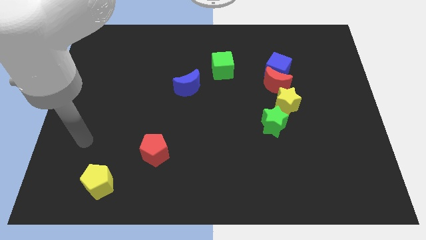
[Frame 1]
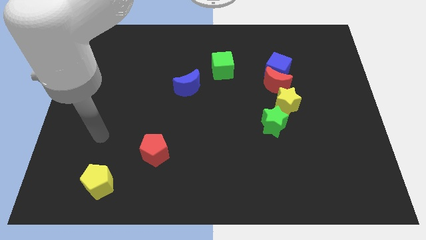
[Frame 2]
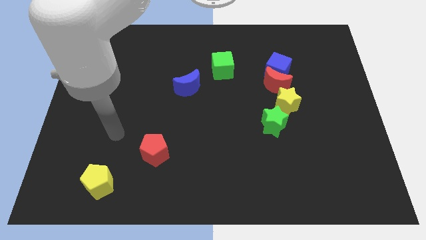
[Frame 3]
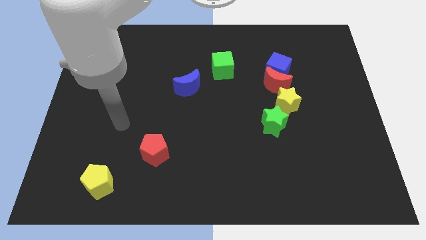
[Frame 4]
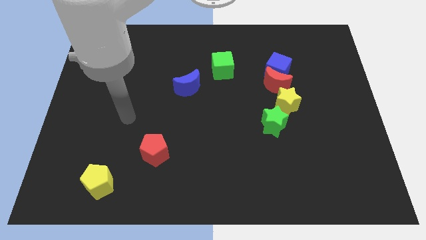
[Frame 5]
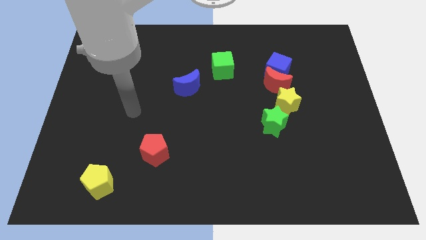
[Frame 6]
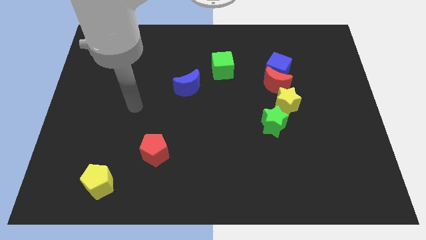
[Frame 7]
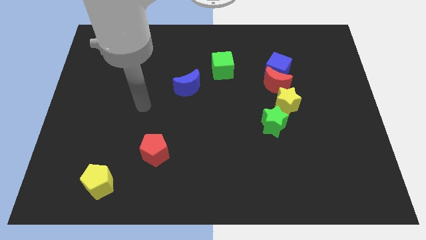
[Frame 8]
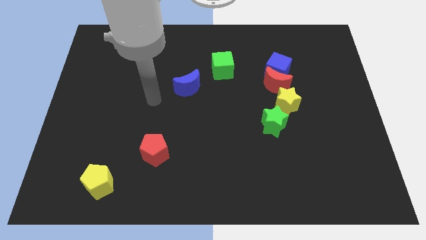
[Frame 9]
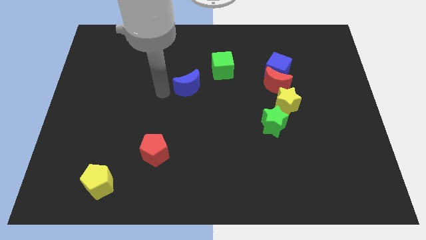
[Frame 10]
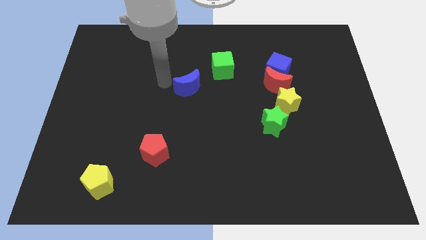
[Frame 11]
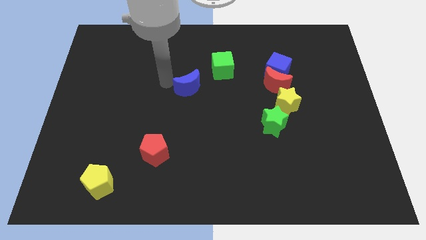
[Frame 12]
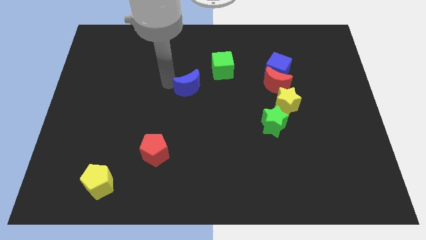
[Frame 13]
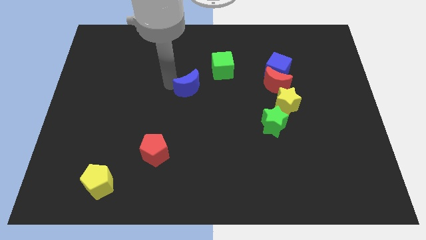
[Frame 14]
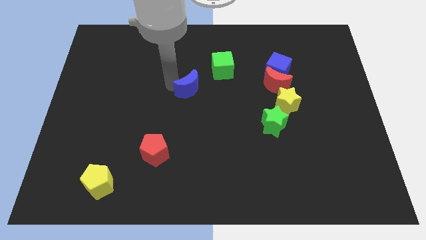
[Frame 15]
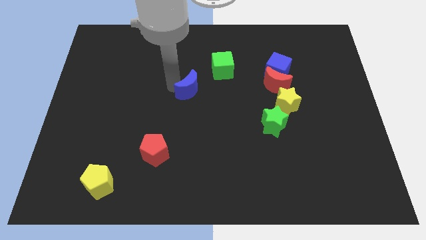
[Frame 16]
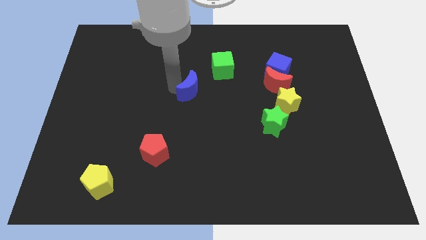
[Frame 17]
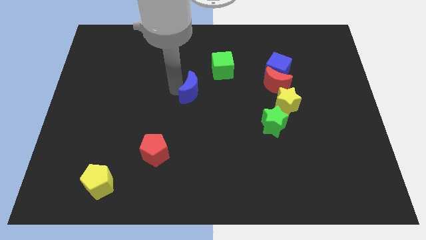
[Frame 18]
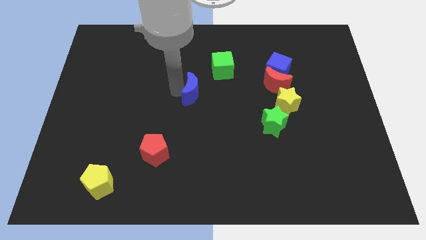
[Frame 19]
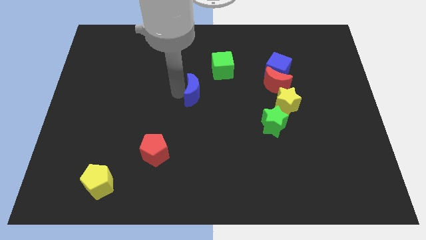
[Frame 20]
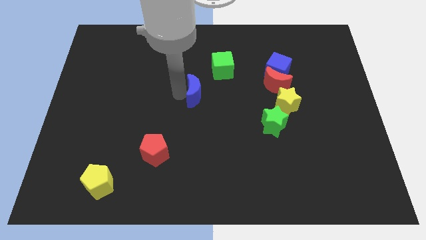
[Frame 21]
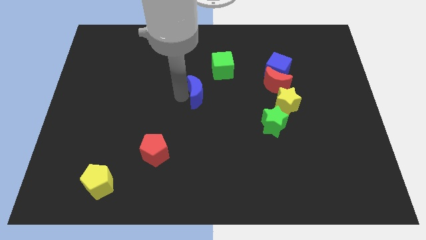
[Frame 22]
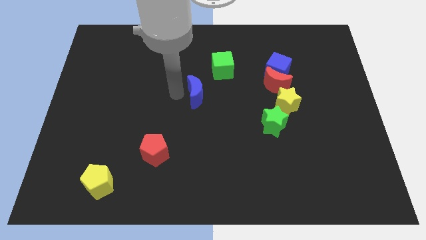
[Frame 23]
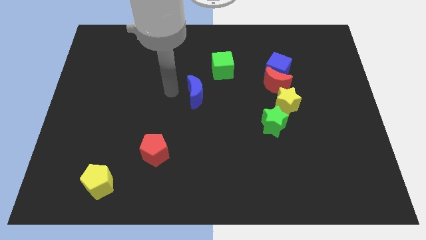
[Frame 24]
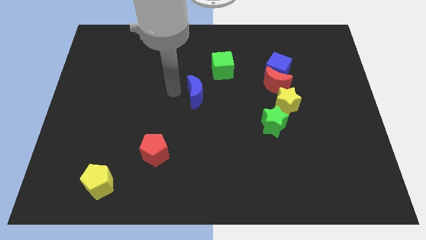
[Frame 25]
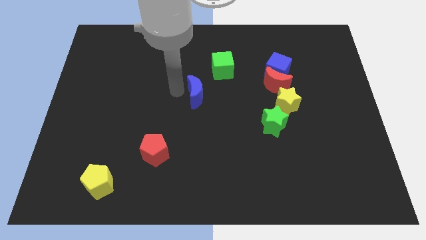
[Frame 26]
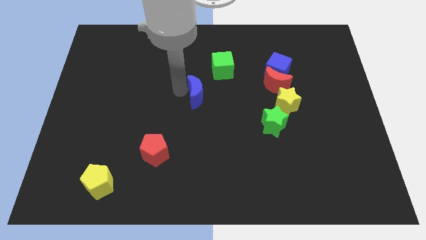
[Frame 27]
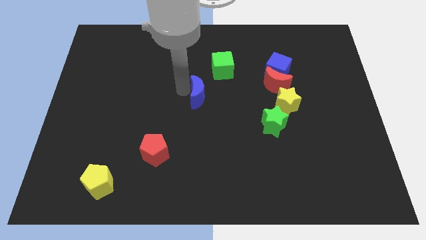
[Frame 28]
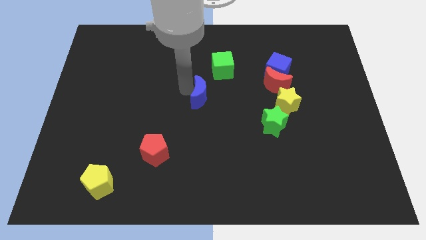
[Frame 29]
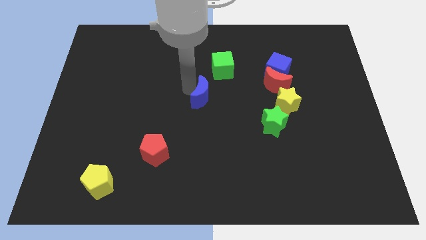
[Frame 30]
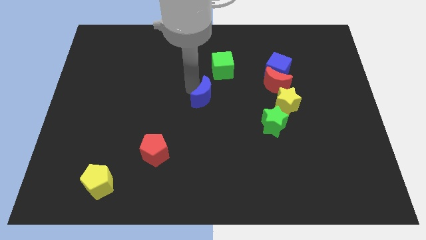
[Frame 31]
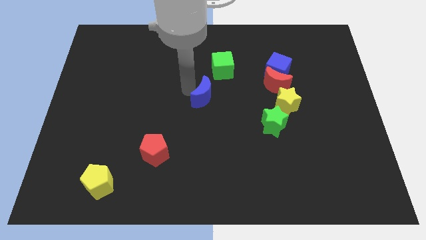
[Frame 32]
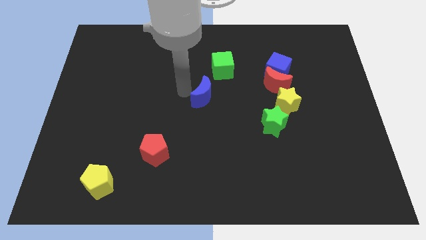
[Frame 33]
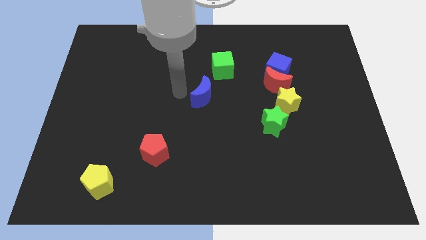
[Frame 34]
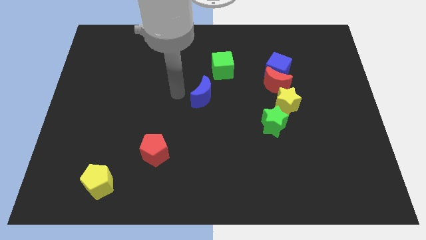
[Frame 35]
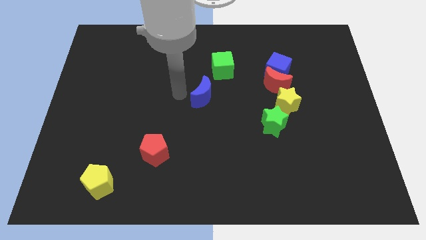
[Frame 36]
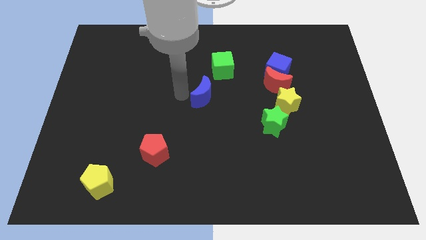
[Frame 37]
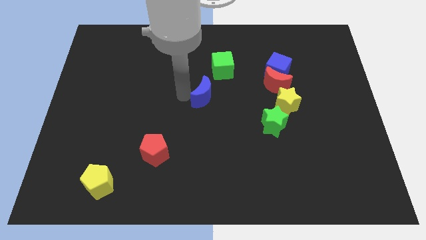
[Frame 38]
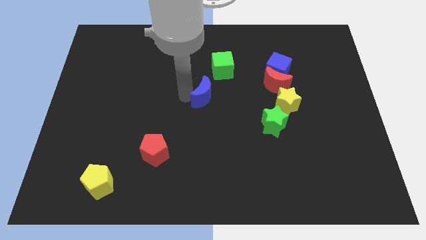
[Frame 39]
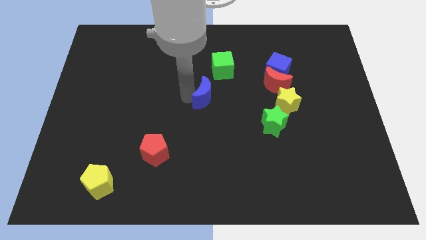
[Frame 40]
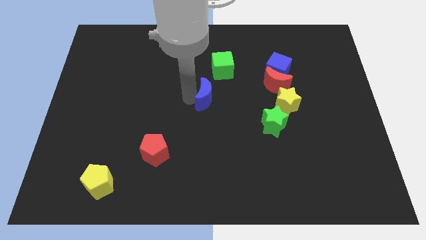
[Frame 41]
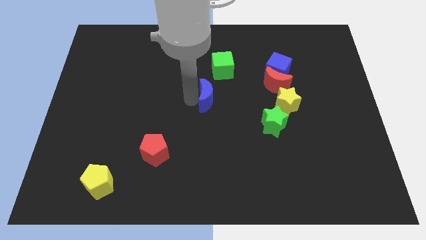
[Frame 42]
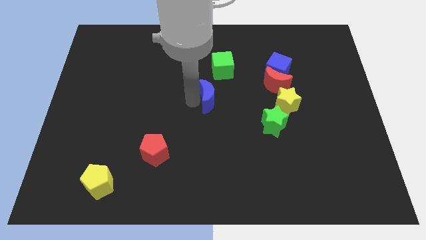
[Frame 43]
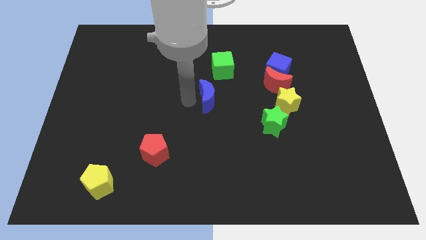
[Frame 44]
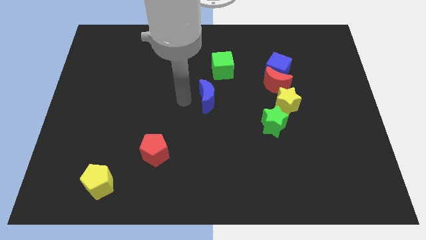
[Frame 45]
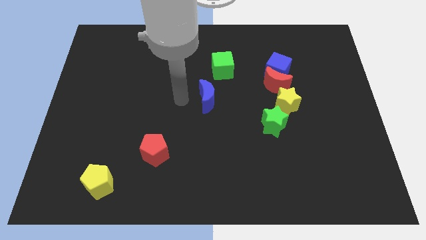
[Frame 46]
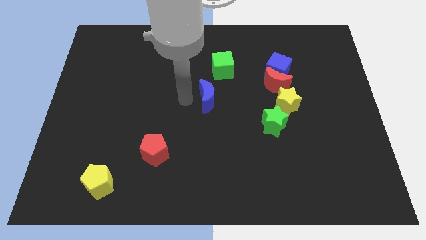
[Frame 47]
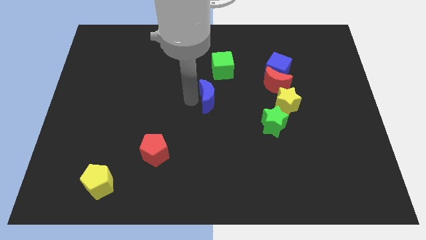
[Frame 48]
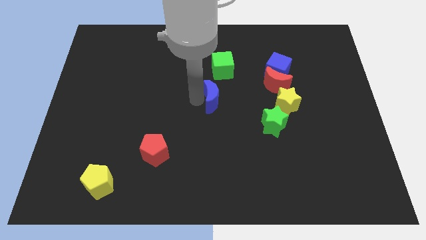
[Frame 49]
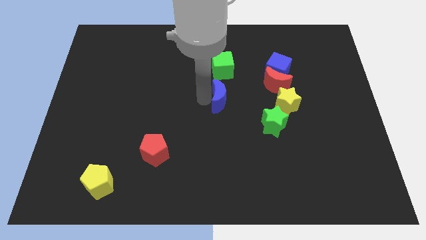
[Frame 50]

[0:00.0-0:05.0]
put the blue moon to the left side of the yellow star

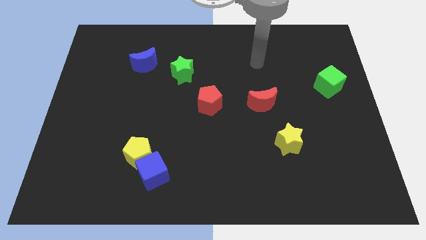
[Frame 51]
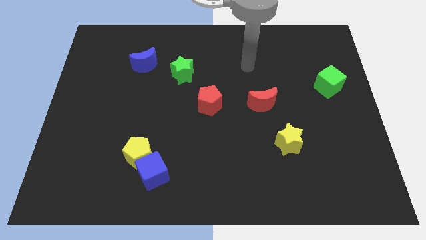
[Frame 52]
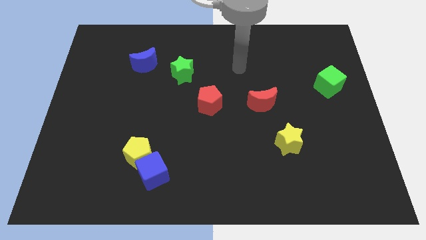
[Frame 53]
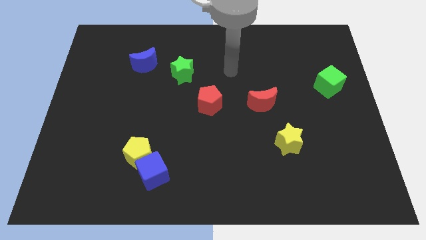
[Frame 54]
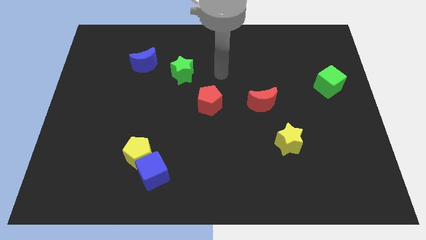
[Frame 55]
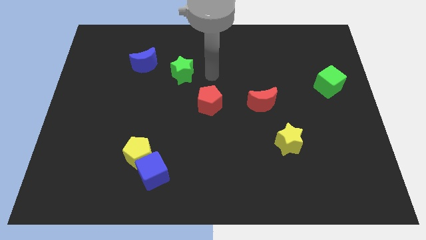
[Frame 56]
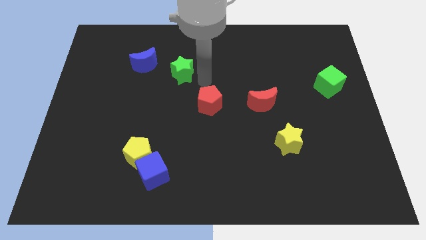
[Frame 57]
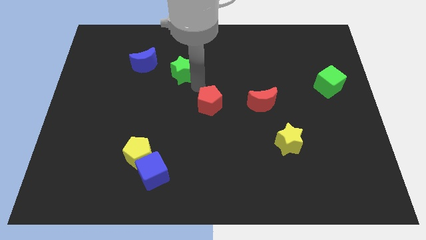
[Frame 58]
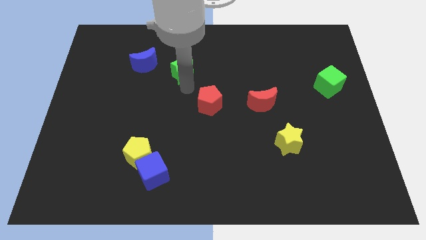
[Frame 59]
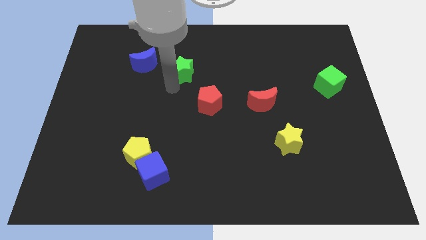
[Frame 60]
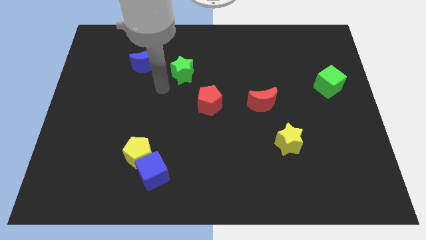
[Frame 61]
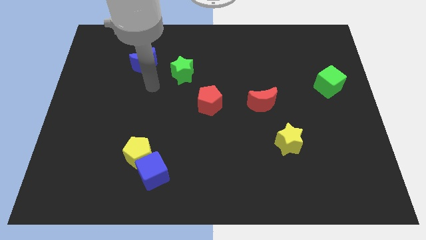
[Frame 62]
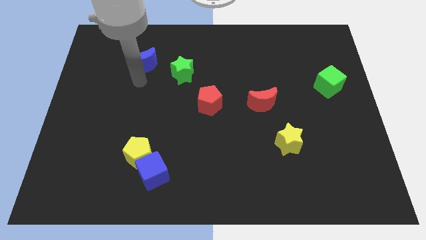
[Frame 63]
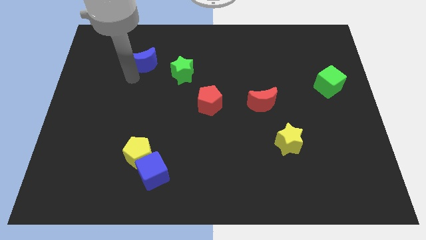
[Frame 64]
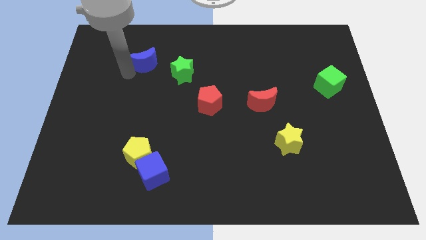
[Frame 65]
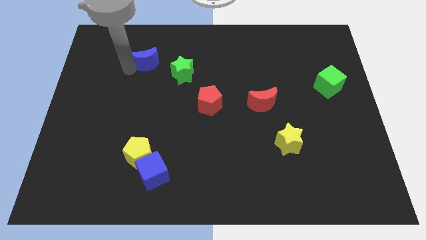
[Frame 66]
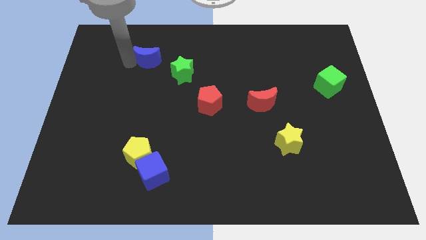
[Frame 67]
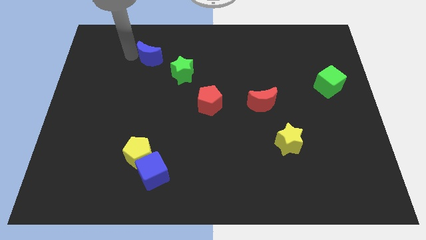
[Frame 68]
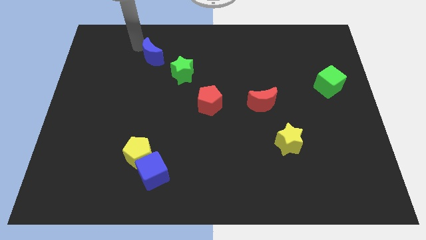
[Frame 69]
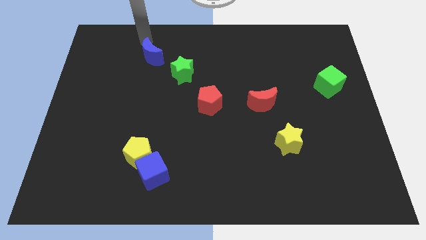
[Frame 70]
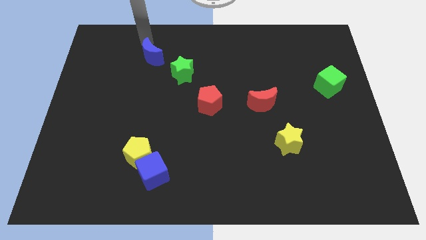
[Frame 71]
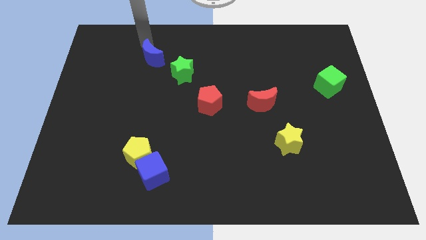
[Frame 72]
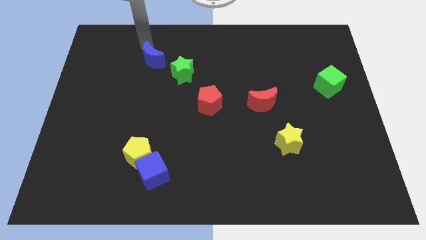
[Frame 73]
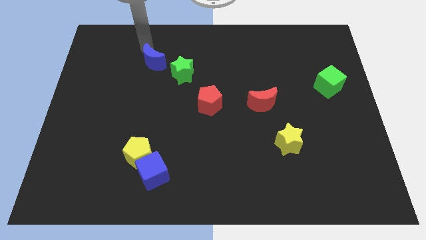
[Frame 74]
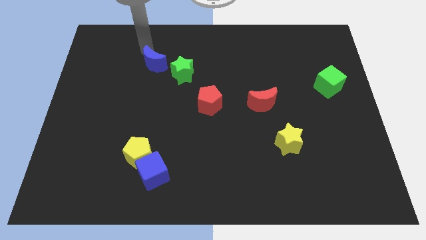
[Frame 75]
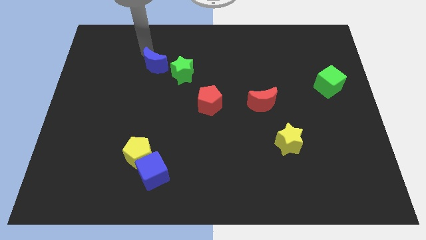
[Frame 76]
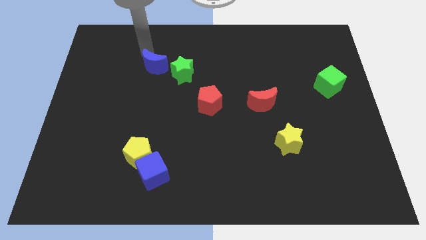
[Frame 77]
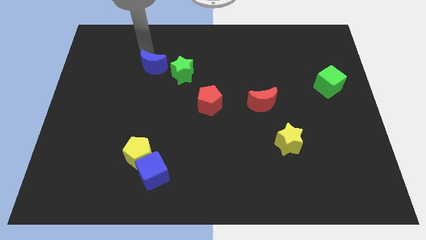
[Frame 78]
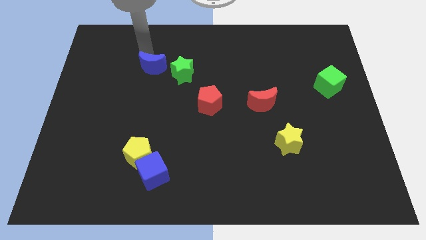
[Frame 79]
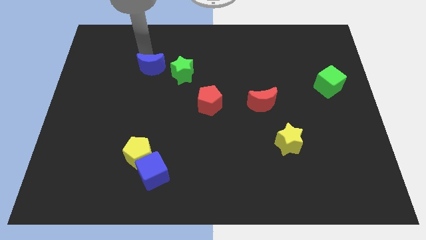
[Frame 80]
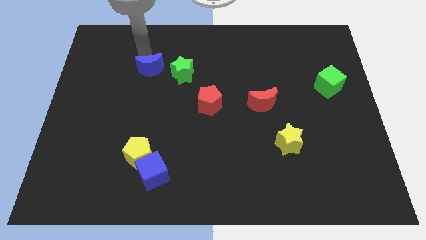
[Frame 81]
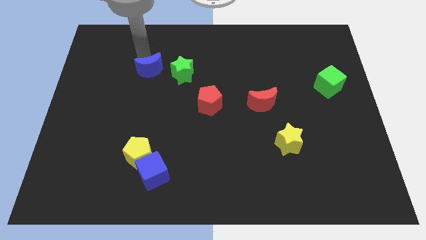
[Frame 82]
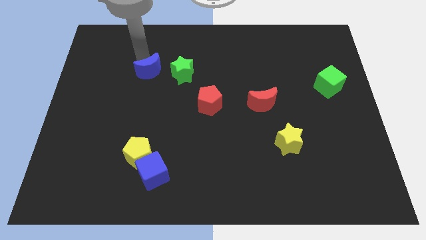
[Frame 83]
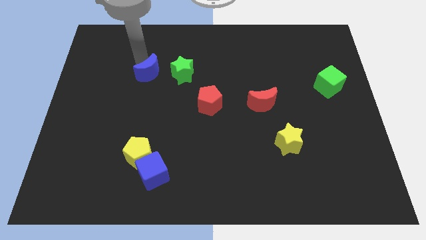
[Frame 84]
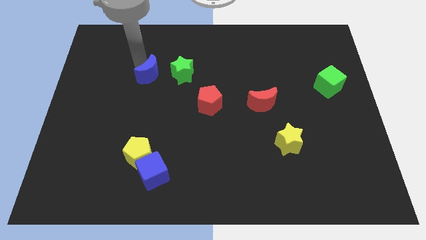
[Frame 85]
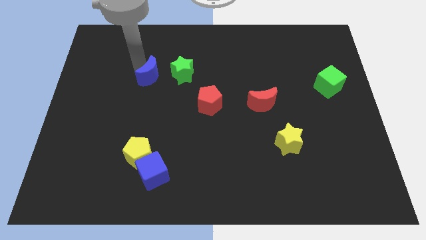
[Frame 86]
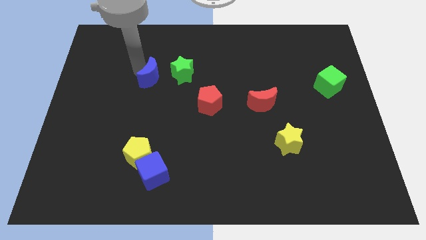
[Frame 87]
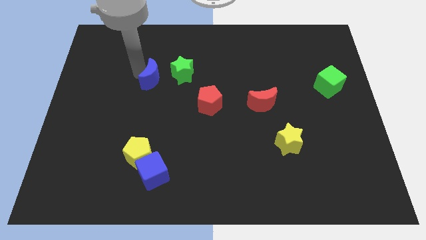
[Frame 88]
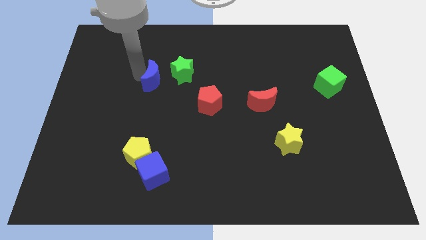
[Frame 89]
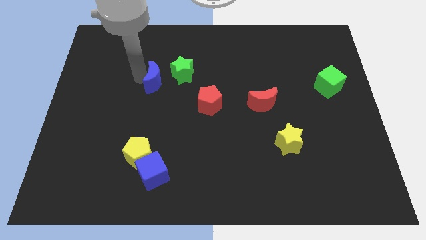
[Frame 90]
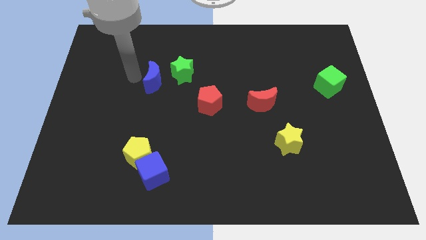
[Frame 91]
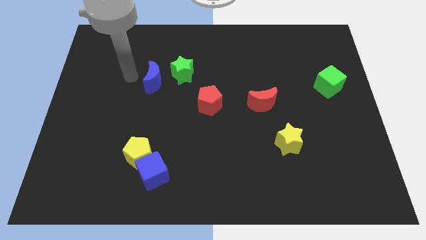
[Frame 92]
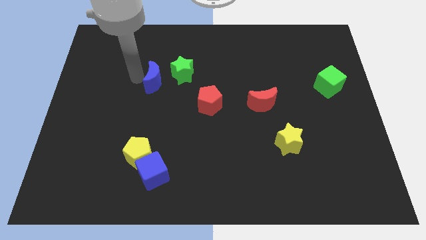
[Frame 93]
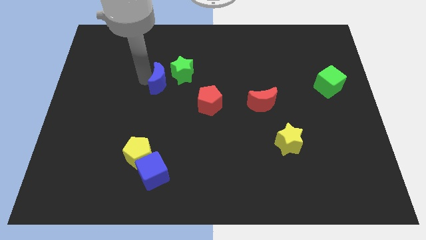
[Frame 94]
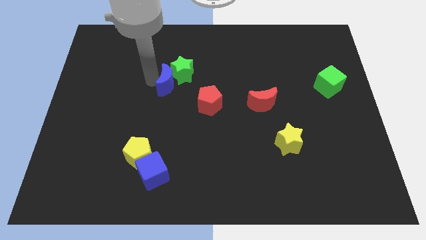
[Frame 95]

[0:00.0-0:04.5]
put the blue moon diagonally up and to the left of the red pentagon
